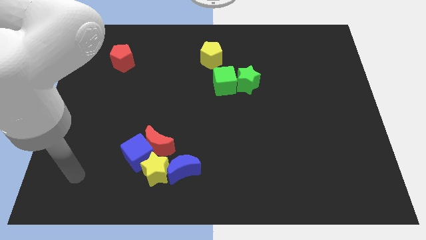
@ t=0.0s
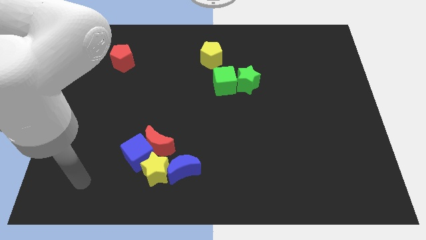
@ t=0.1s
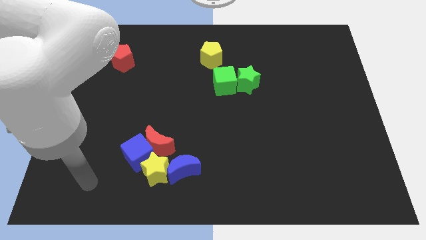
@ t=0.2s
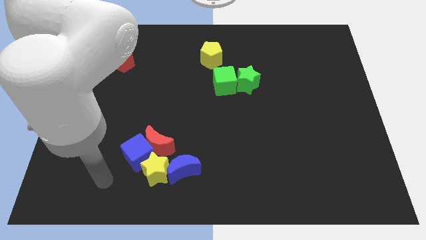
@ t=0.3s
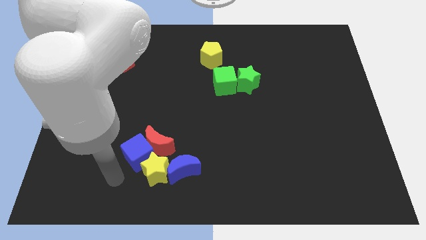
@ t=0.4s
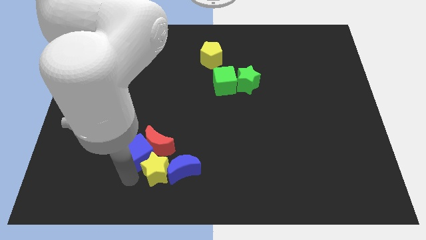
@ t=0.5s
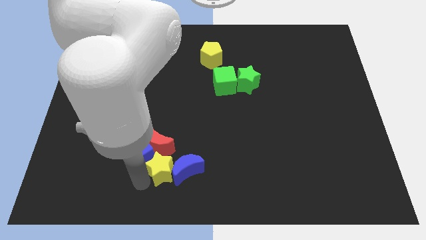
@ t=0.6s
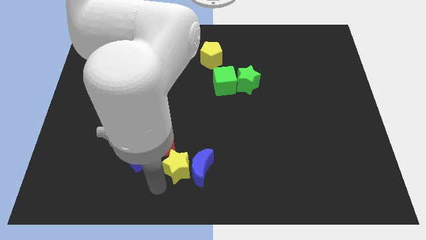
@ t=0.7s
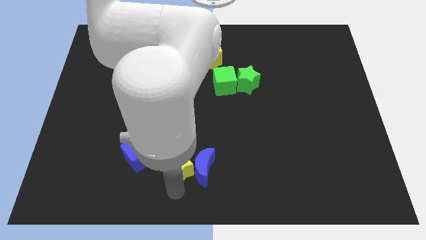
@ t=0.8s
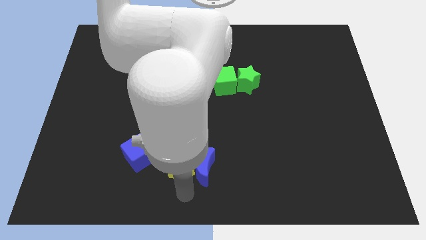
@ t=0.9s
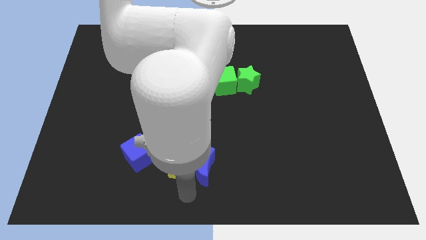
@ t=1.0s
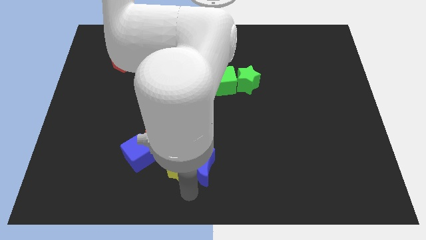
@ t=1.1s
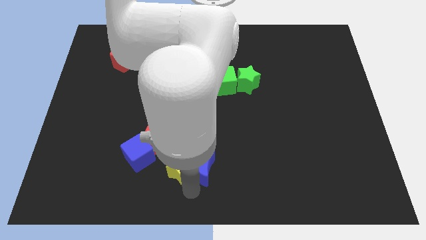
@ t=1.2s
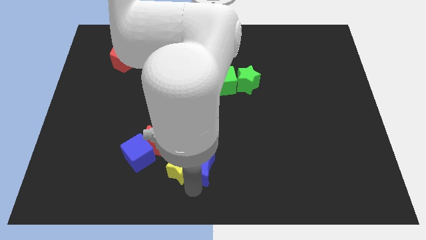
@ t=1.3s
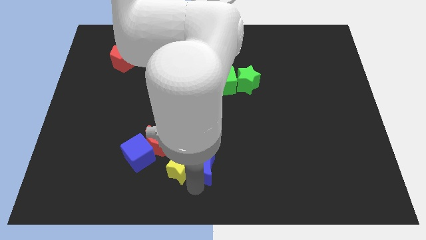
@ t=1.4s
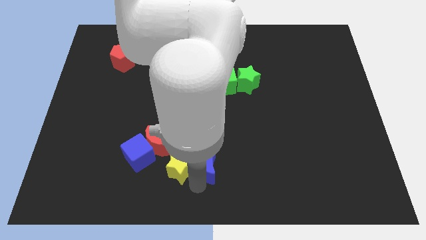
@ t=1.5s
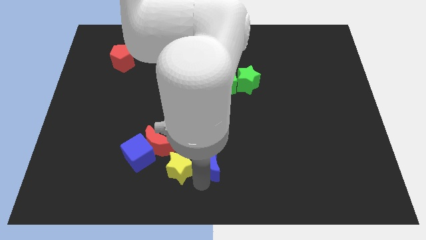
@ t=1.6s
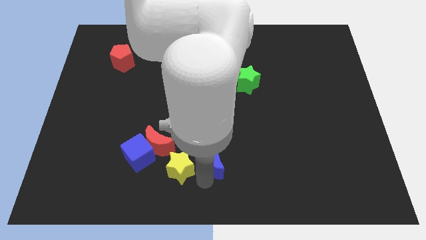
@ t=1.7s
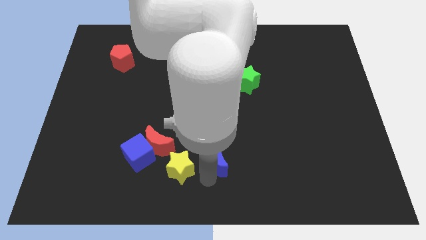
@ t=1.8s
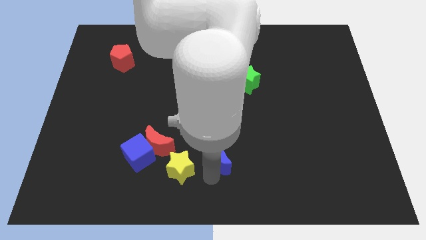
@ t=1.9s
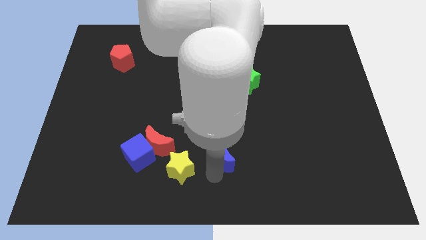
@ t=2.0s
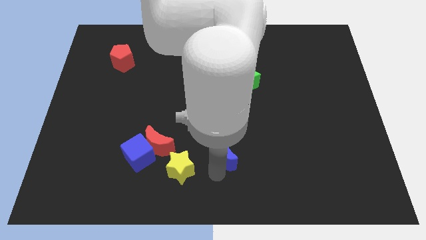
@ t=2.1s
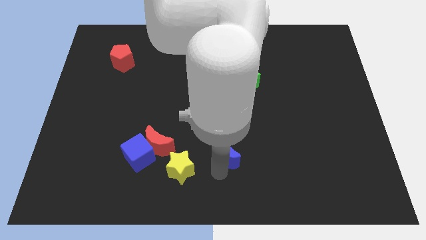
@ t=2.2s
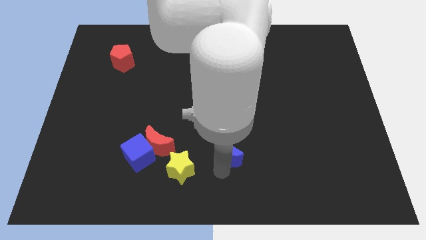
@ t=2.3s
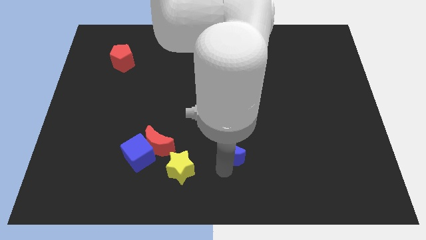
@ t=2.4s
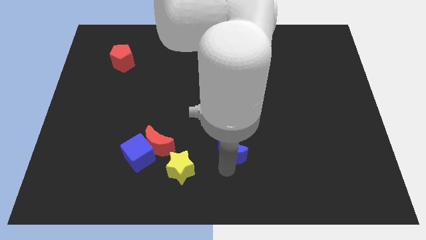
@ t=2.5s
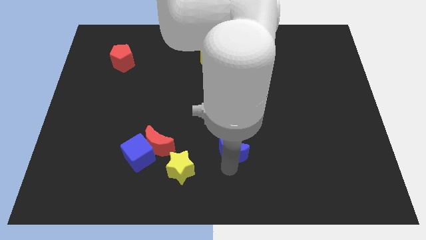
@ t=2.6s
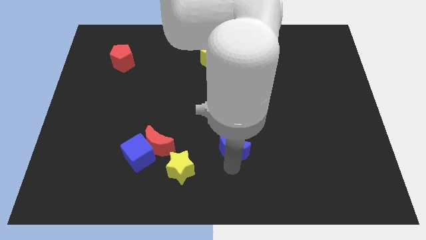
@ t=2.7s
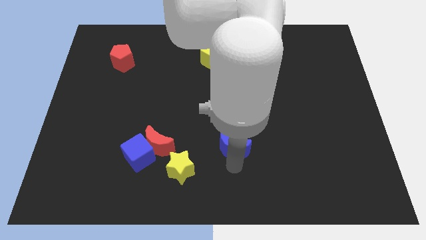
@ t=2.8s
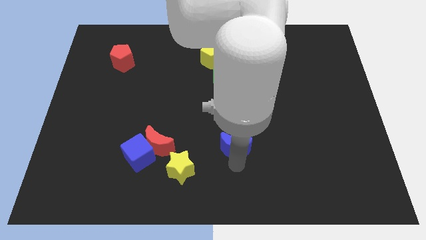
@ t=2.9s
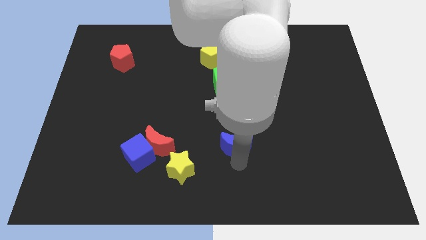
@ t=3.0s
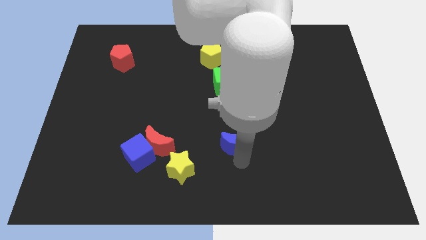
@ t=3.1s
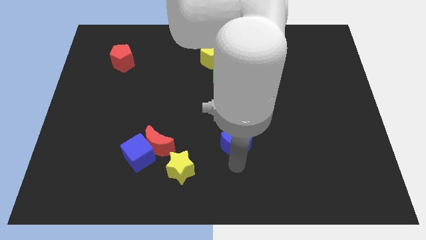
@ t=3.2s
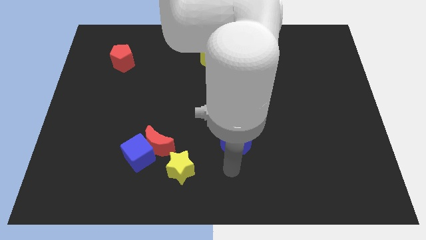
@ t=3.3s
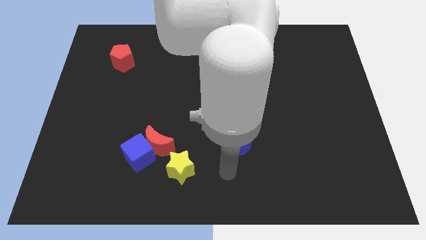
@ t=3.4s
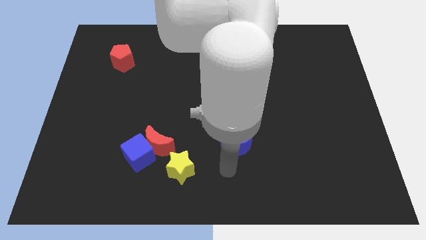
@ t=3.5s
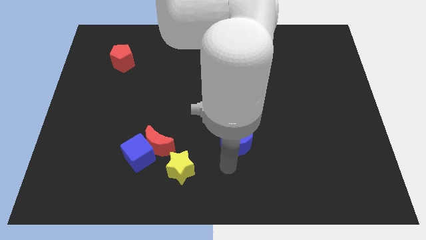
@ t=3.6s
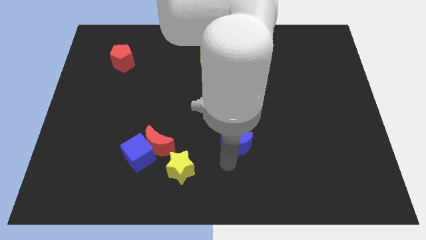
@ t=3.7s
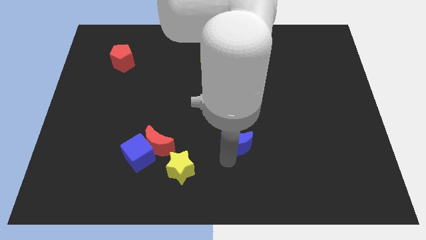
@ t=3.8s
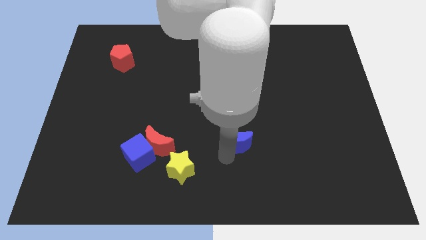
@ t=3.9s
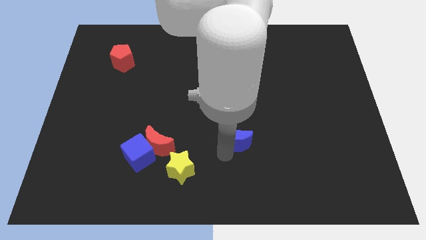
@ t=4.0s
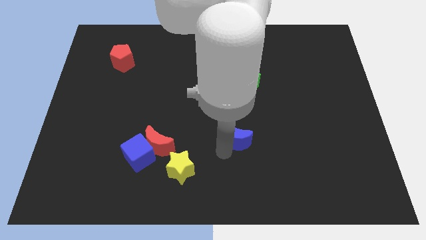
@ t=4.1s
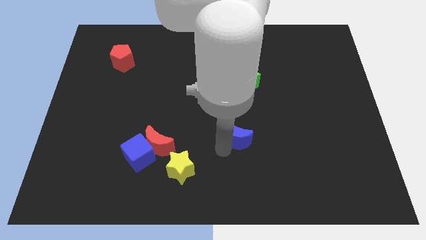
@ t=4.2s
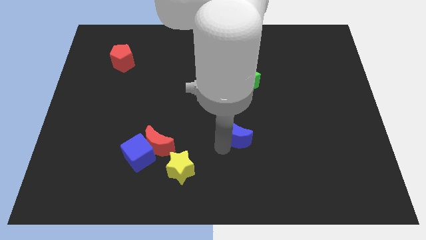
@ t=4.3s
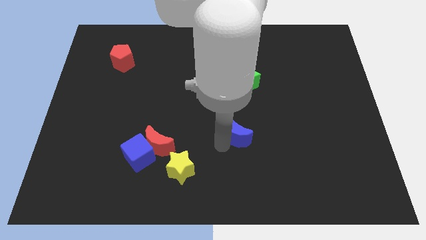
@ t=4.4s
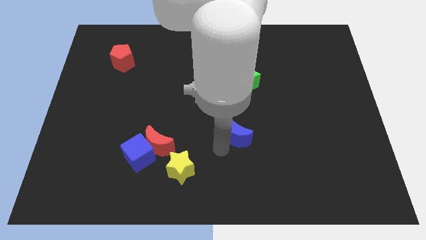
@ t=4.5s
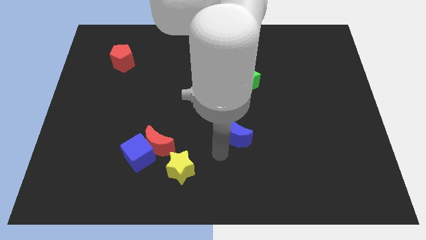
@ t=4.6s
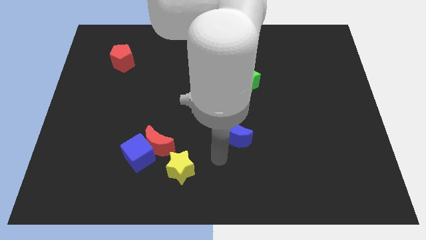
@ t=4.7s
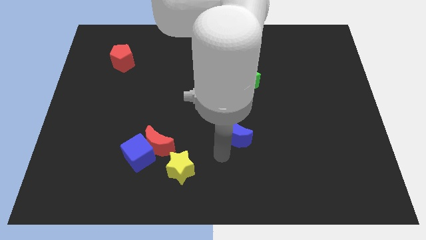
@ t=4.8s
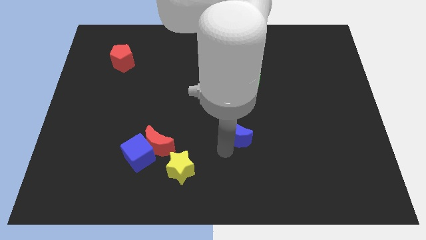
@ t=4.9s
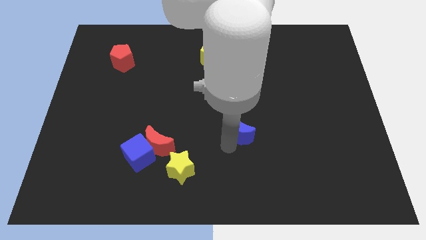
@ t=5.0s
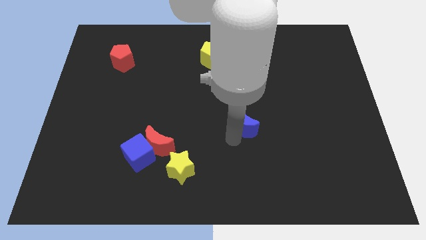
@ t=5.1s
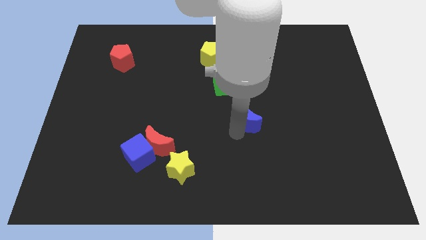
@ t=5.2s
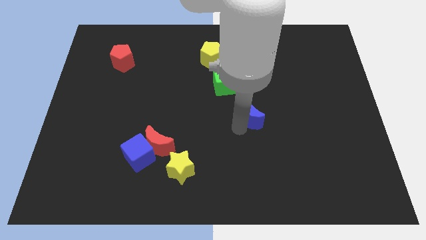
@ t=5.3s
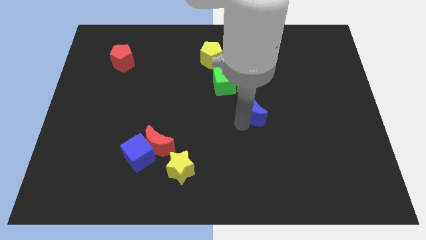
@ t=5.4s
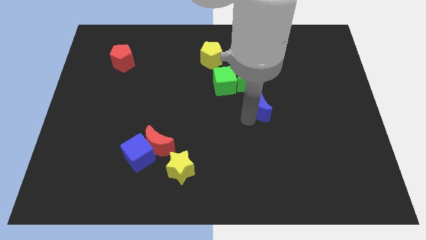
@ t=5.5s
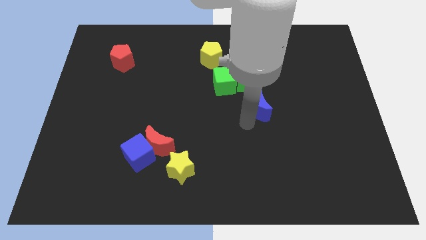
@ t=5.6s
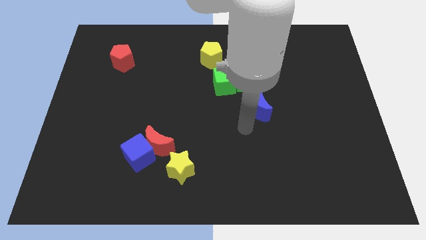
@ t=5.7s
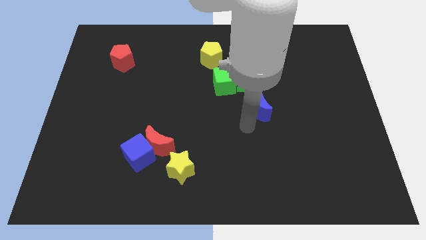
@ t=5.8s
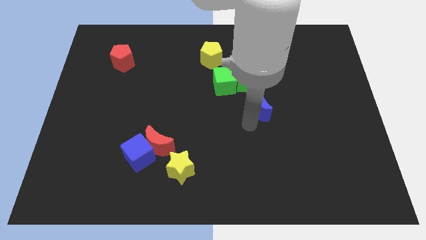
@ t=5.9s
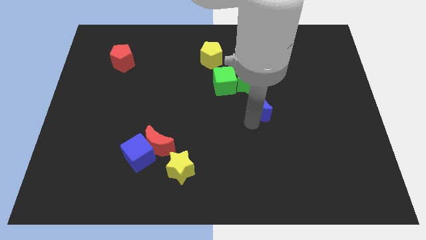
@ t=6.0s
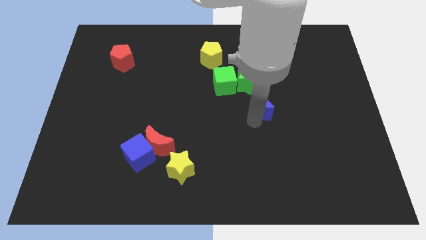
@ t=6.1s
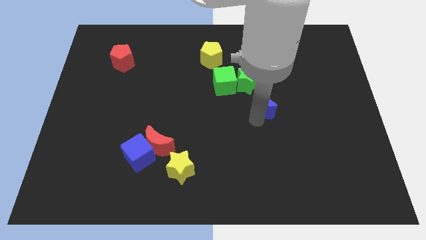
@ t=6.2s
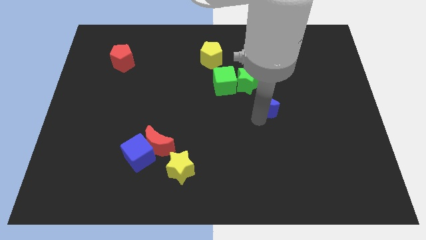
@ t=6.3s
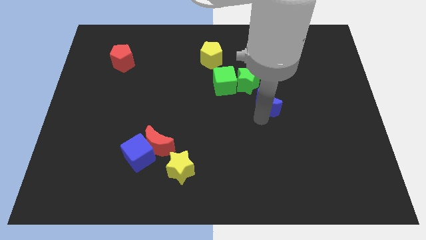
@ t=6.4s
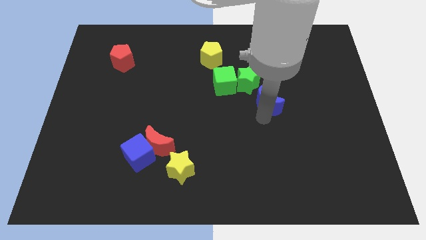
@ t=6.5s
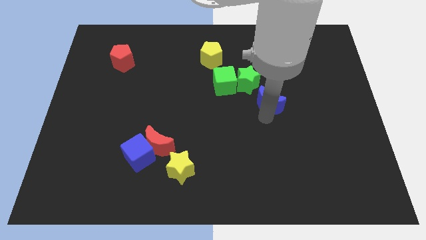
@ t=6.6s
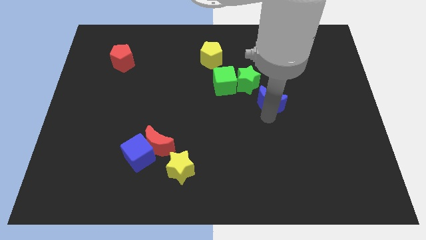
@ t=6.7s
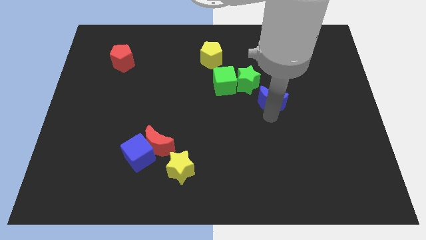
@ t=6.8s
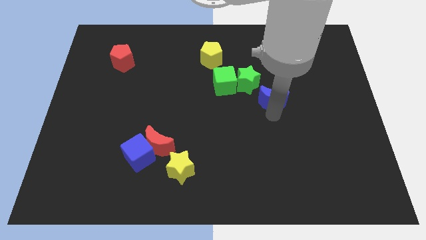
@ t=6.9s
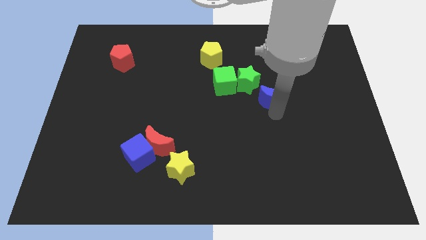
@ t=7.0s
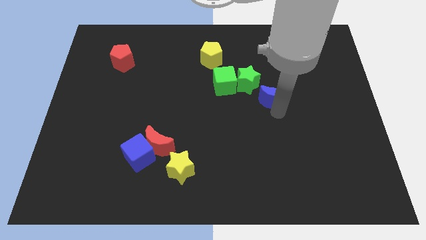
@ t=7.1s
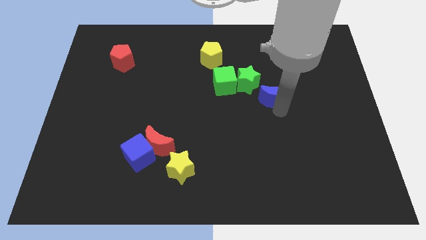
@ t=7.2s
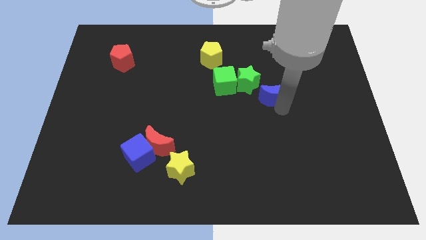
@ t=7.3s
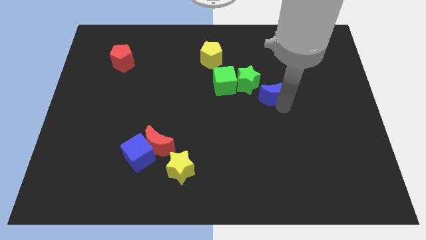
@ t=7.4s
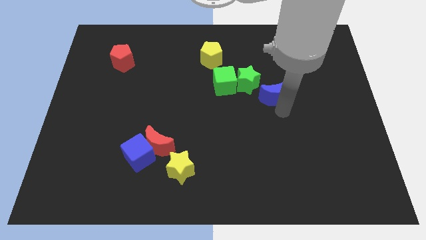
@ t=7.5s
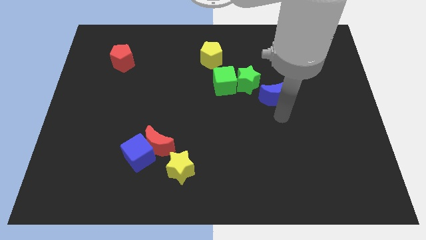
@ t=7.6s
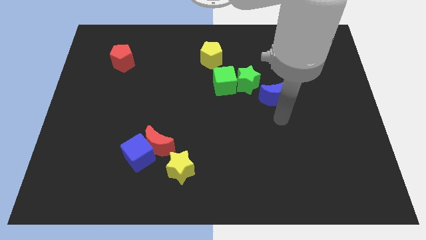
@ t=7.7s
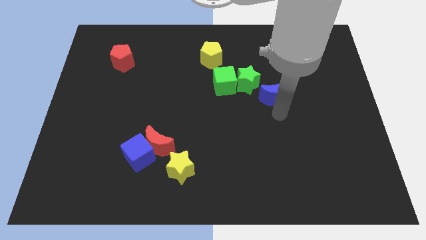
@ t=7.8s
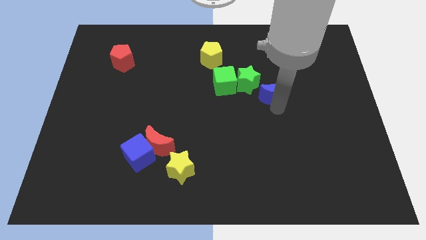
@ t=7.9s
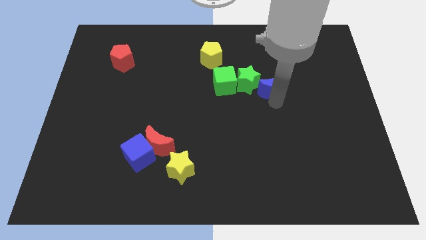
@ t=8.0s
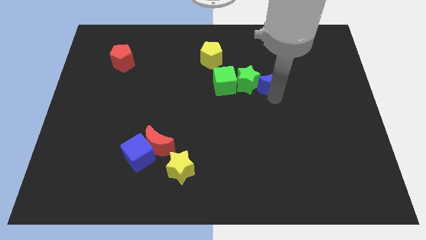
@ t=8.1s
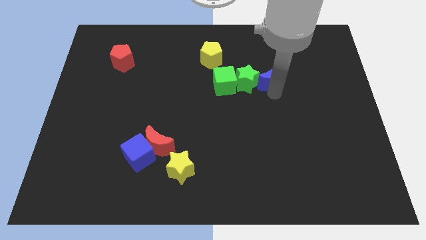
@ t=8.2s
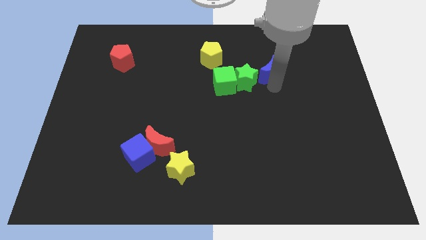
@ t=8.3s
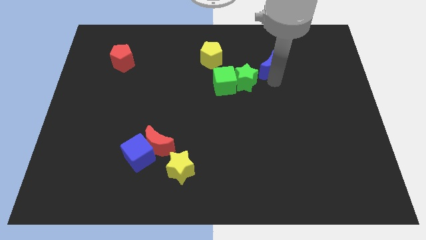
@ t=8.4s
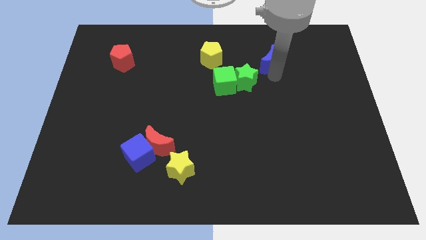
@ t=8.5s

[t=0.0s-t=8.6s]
move the blue moon to the right side of the yellow pentagon
